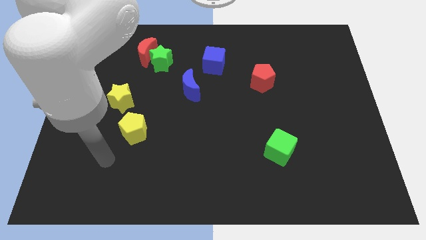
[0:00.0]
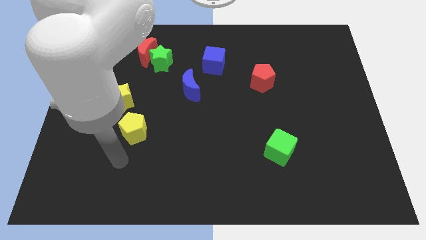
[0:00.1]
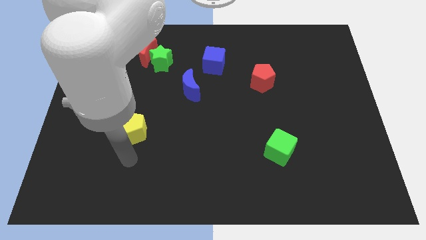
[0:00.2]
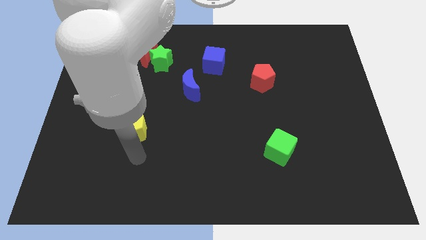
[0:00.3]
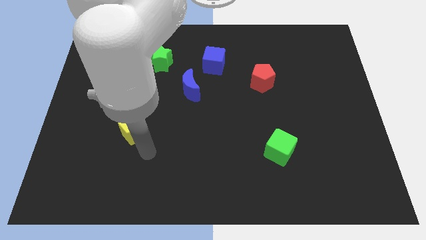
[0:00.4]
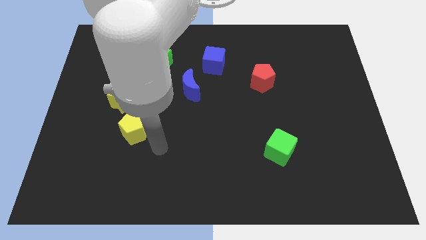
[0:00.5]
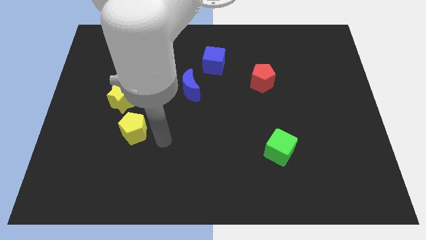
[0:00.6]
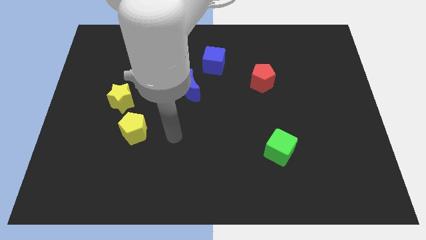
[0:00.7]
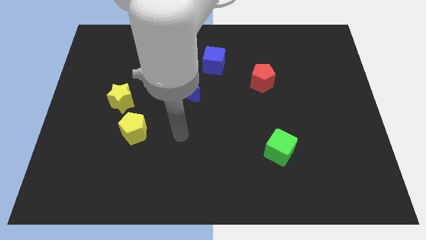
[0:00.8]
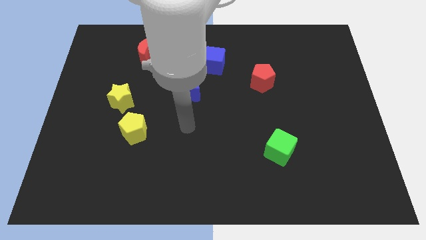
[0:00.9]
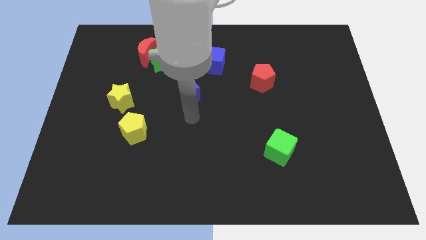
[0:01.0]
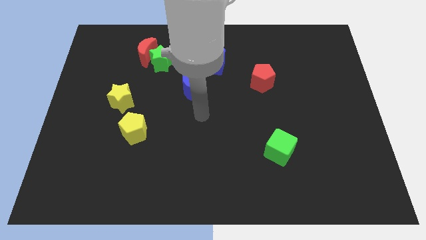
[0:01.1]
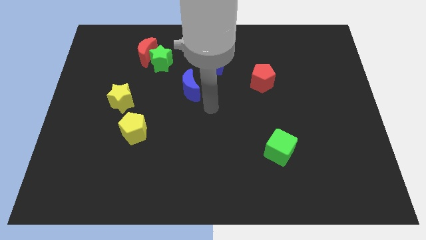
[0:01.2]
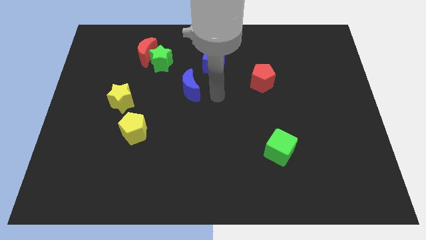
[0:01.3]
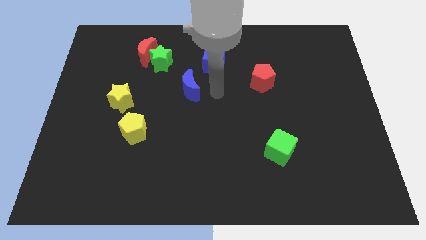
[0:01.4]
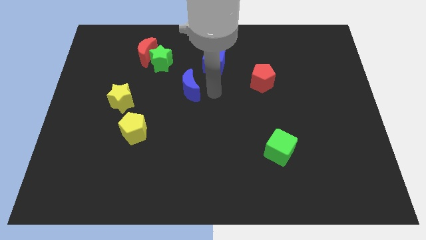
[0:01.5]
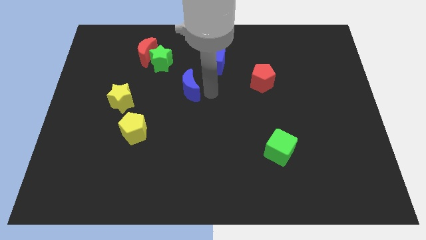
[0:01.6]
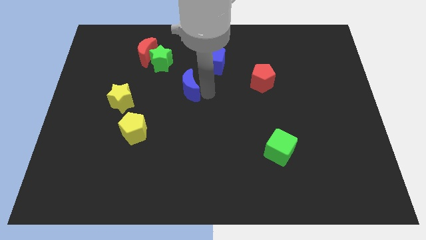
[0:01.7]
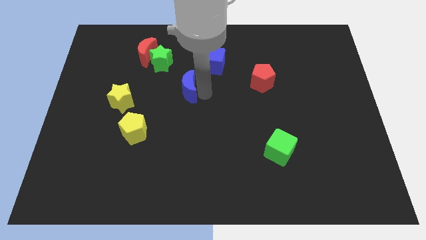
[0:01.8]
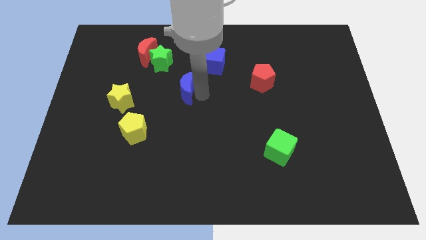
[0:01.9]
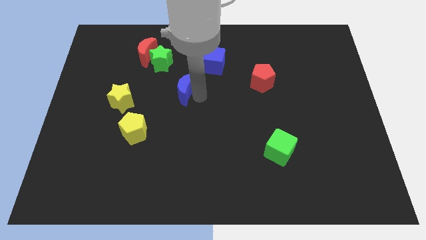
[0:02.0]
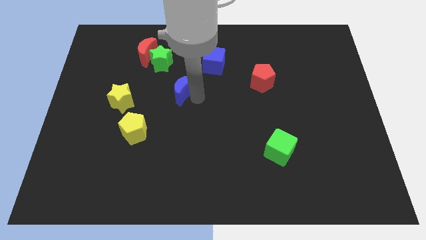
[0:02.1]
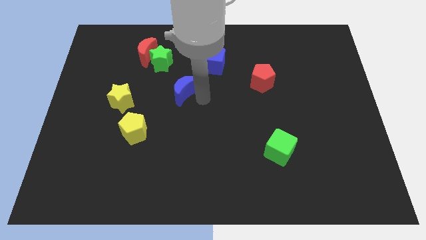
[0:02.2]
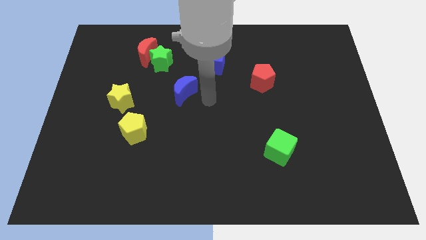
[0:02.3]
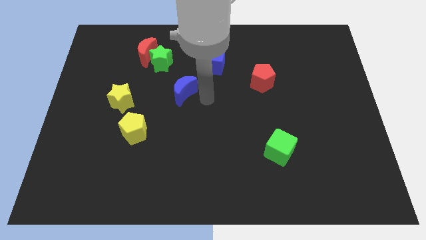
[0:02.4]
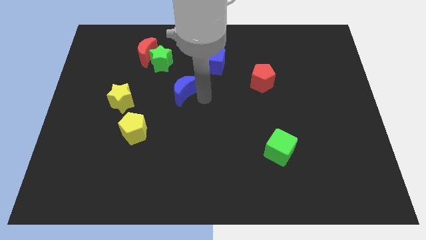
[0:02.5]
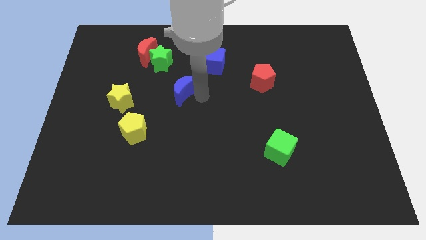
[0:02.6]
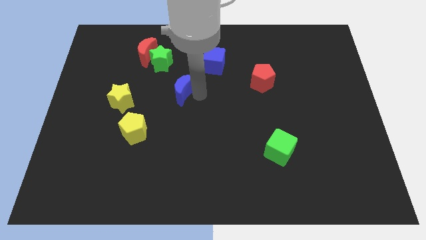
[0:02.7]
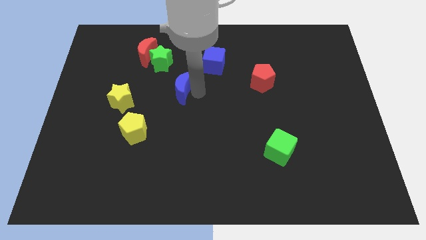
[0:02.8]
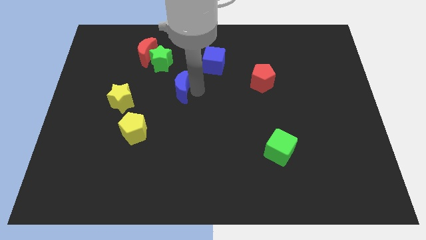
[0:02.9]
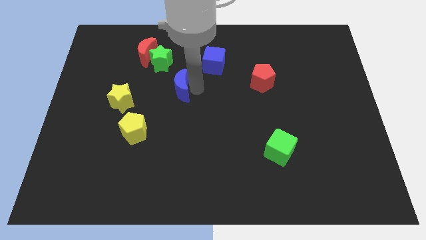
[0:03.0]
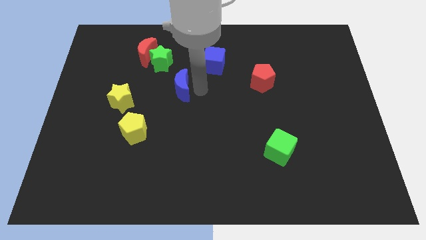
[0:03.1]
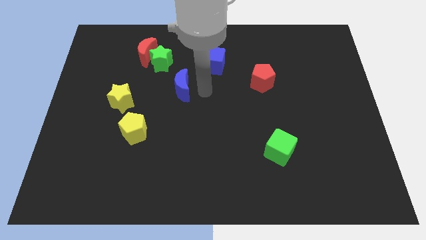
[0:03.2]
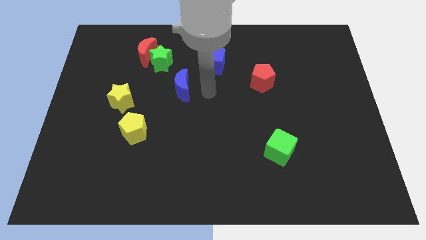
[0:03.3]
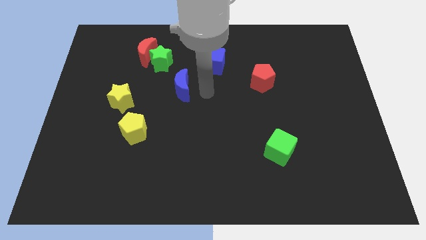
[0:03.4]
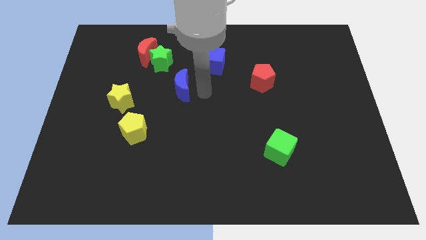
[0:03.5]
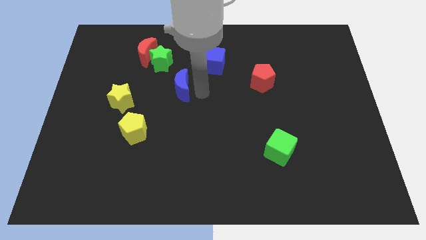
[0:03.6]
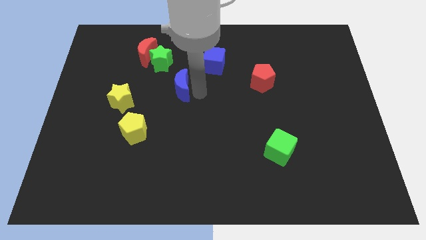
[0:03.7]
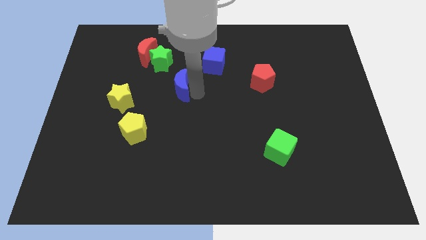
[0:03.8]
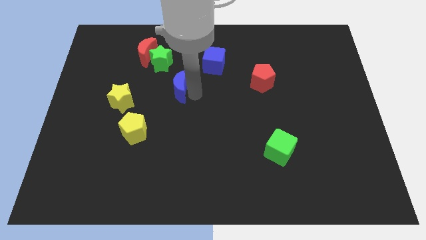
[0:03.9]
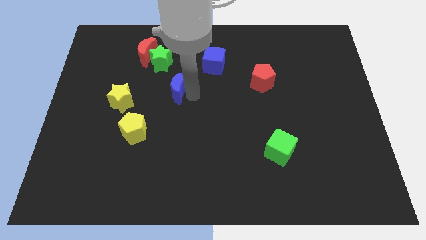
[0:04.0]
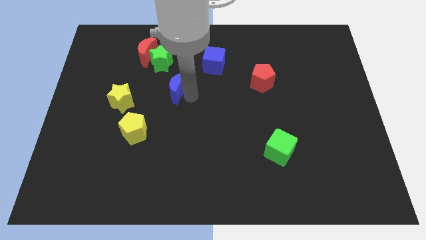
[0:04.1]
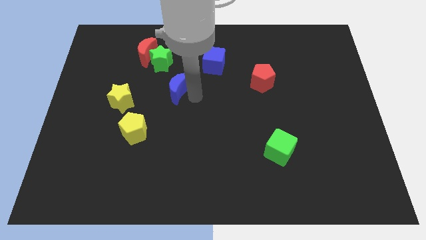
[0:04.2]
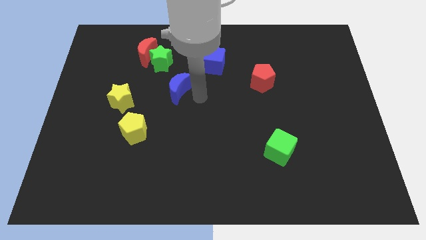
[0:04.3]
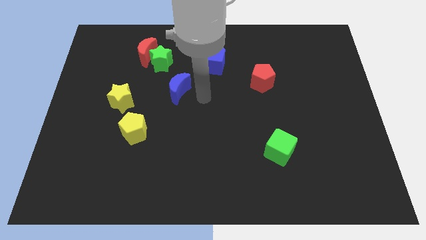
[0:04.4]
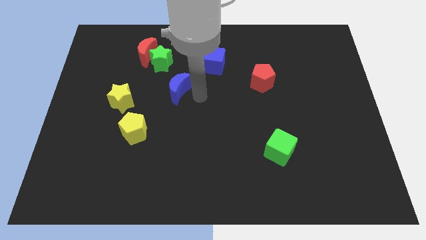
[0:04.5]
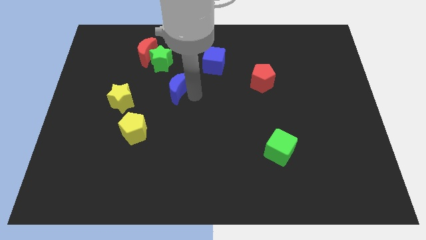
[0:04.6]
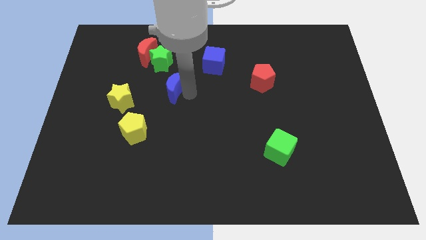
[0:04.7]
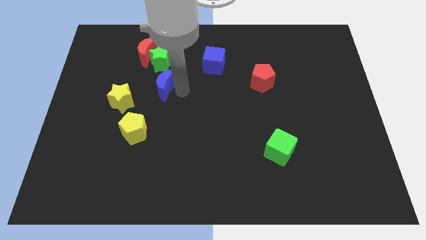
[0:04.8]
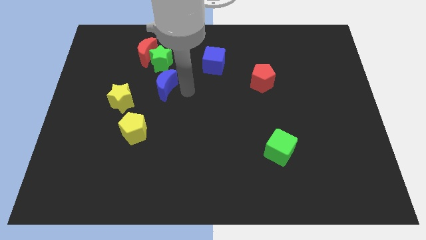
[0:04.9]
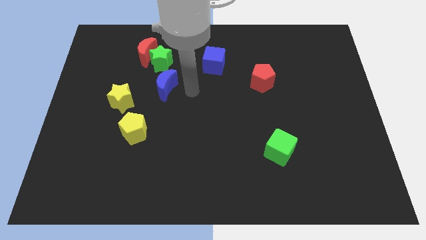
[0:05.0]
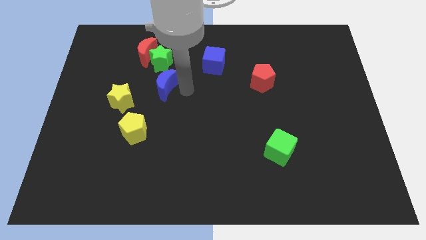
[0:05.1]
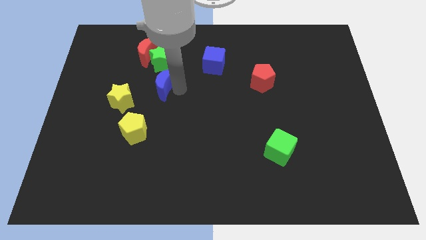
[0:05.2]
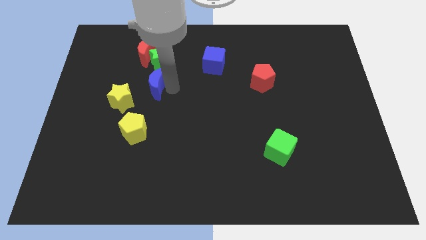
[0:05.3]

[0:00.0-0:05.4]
push the blue moon to the bottom side of the red moon

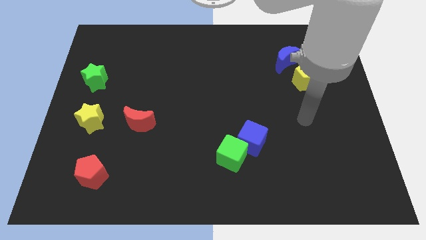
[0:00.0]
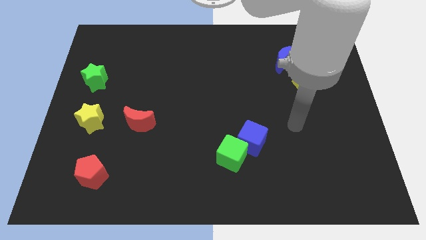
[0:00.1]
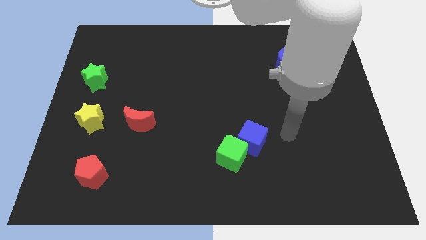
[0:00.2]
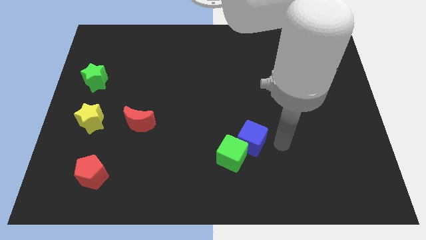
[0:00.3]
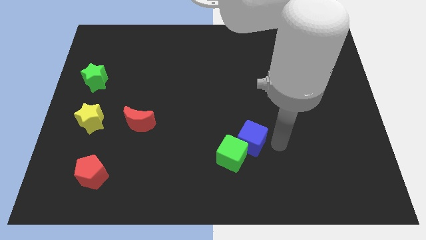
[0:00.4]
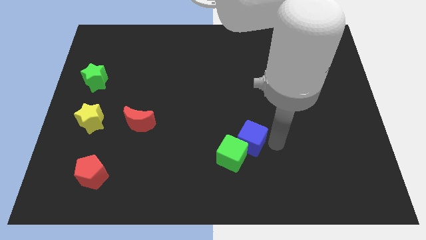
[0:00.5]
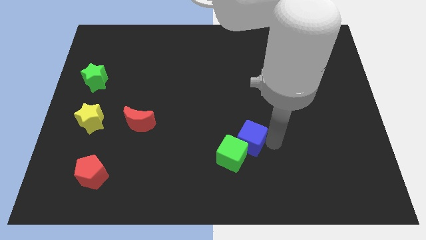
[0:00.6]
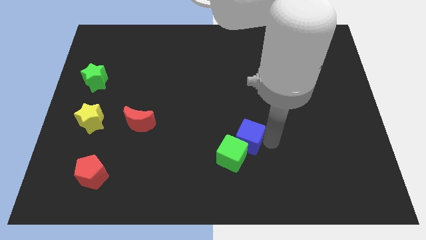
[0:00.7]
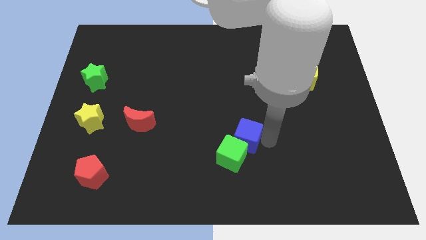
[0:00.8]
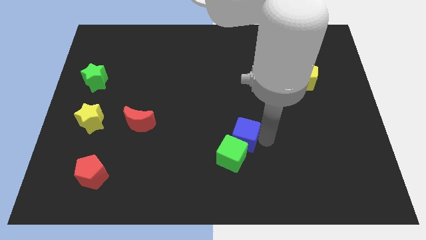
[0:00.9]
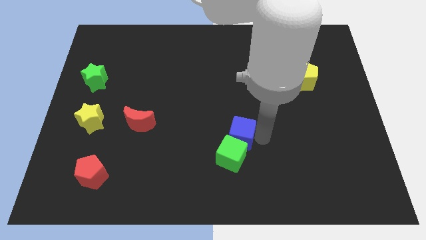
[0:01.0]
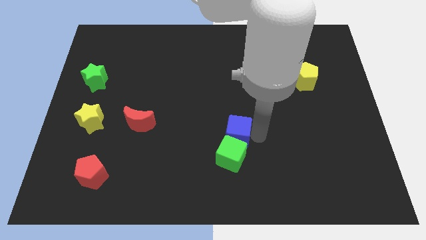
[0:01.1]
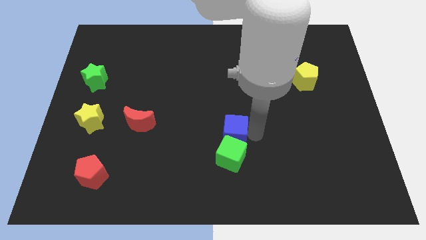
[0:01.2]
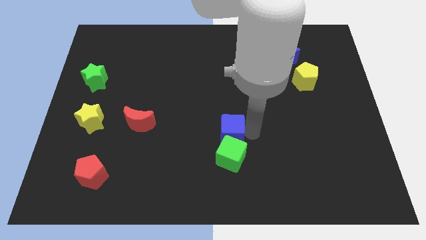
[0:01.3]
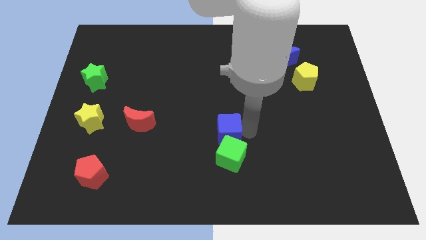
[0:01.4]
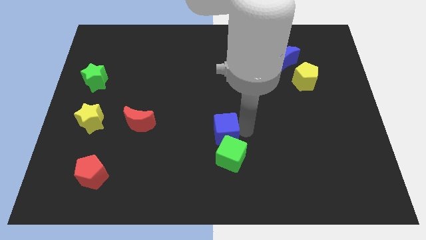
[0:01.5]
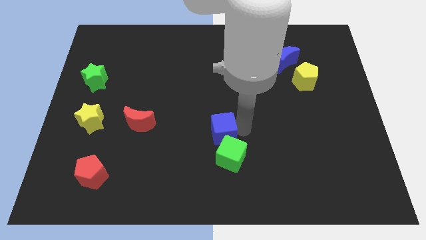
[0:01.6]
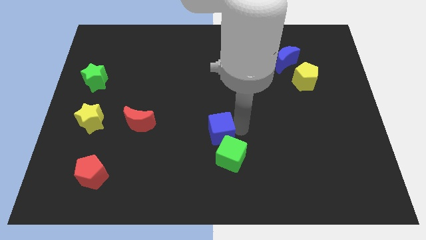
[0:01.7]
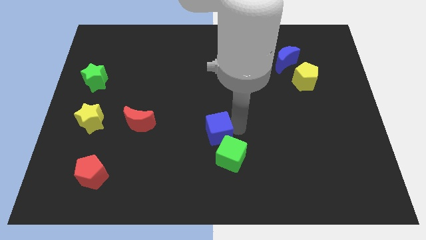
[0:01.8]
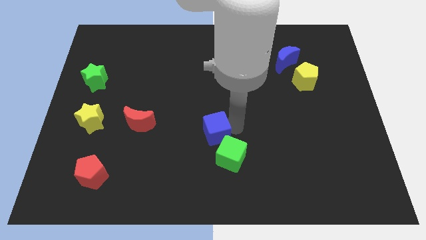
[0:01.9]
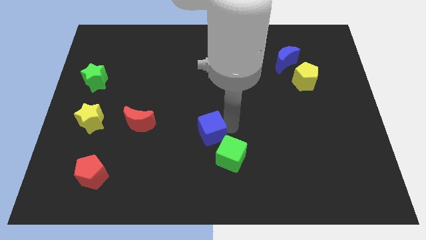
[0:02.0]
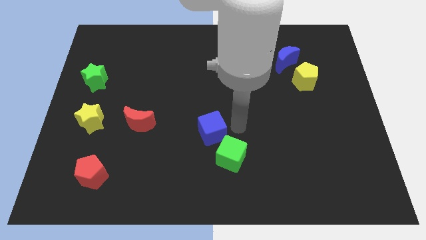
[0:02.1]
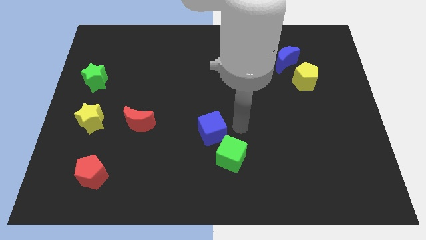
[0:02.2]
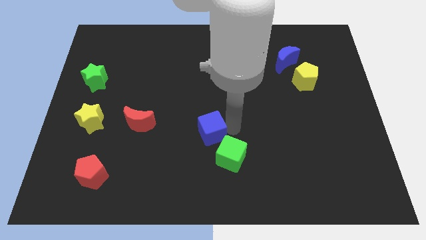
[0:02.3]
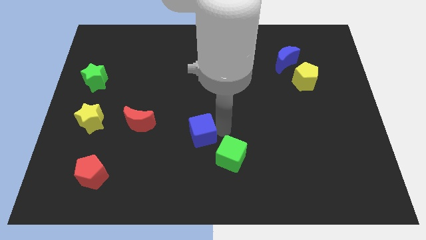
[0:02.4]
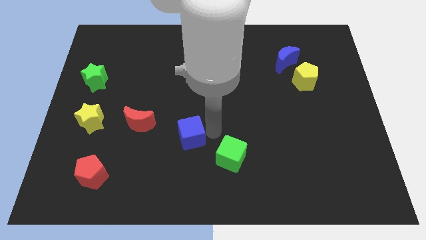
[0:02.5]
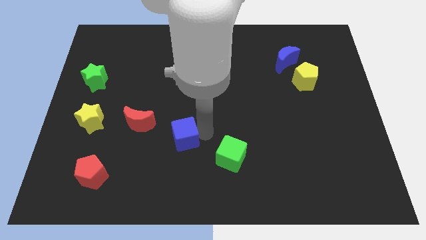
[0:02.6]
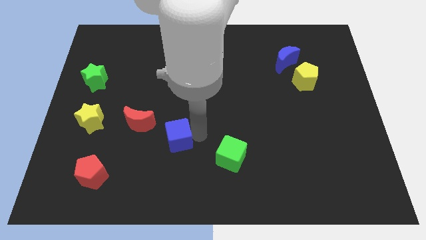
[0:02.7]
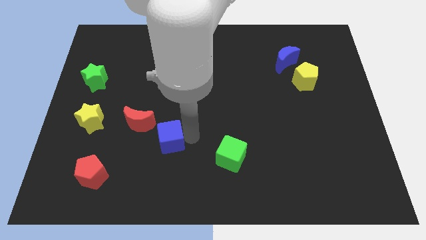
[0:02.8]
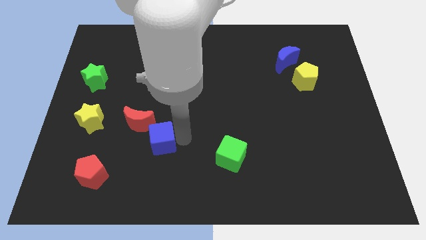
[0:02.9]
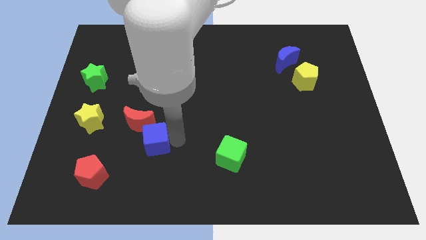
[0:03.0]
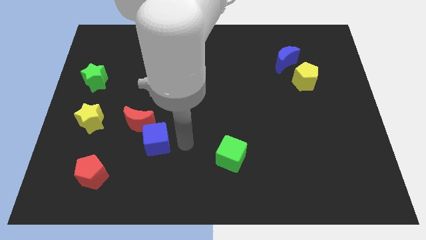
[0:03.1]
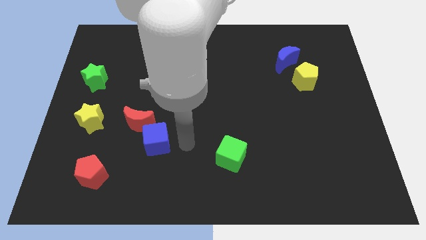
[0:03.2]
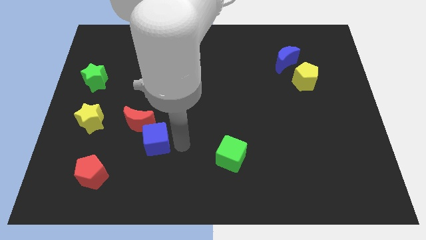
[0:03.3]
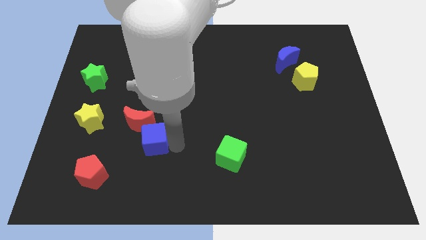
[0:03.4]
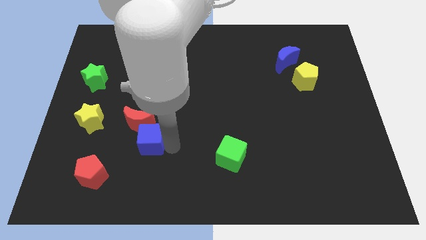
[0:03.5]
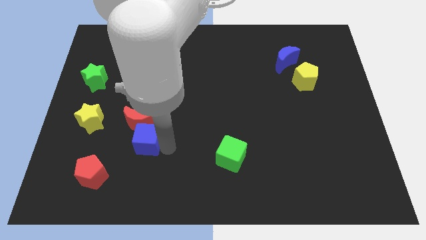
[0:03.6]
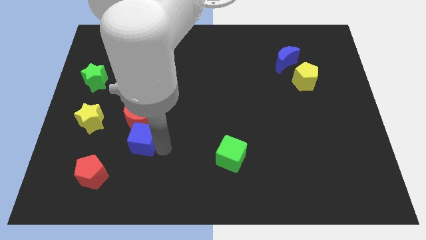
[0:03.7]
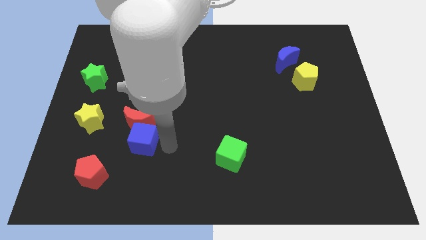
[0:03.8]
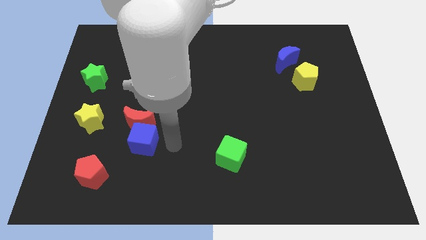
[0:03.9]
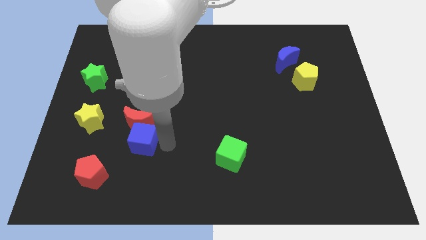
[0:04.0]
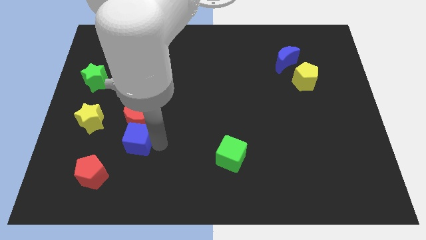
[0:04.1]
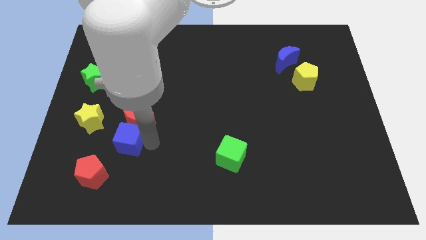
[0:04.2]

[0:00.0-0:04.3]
slide the blue cube to the bottom right of the yellow star
